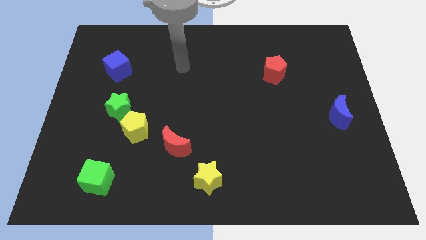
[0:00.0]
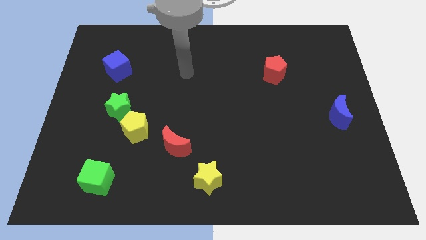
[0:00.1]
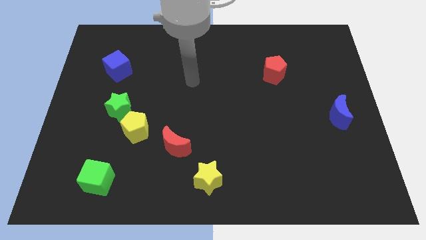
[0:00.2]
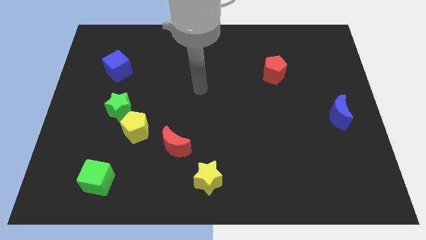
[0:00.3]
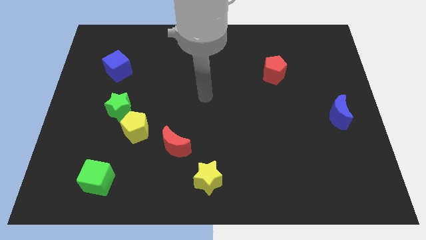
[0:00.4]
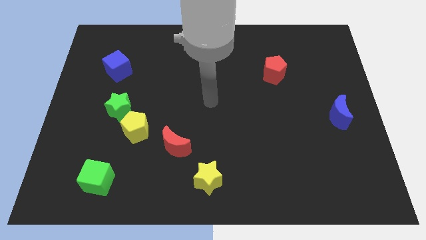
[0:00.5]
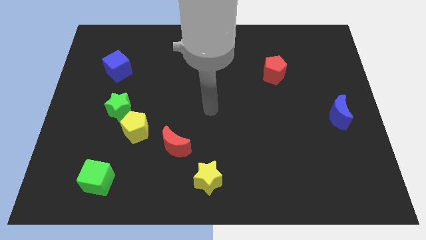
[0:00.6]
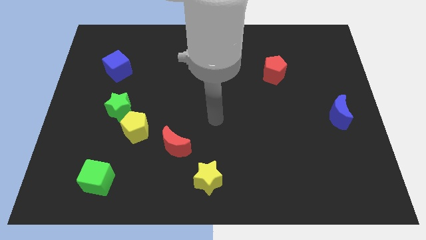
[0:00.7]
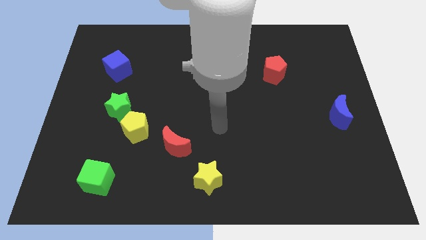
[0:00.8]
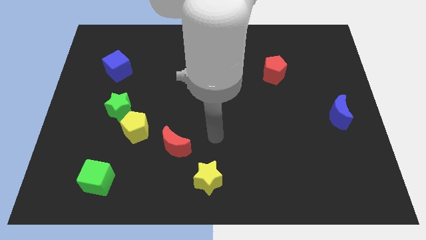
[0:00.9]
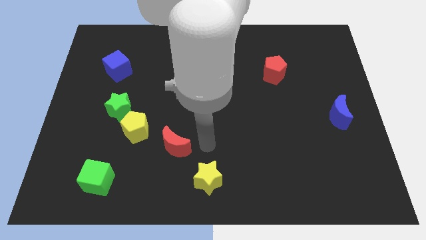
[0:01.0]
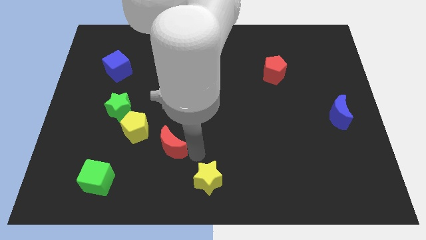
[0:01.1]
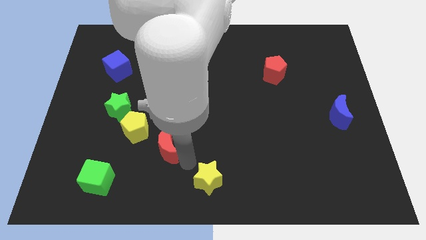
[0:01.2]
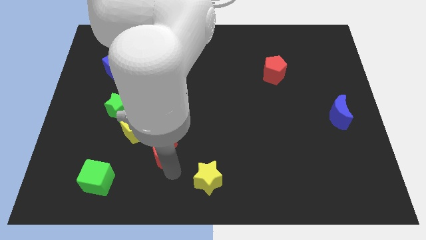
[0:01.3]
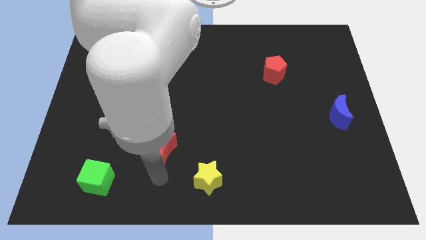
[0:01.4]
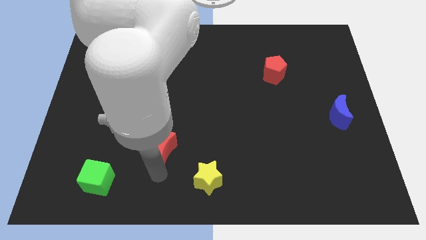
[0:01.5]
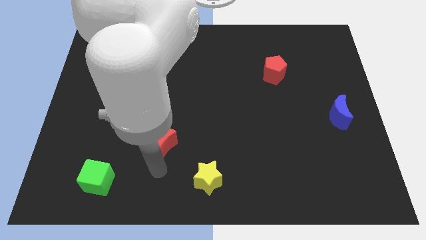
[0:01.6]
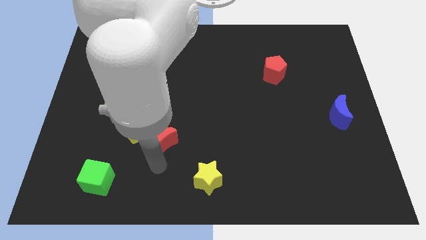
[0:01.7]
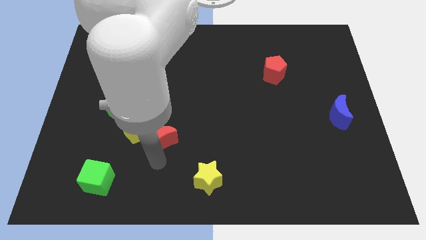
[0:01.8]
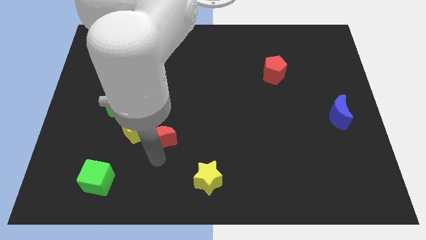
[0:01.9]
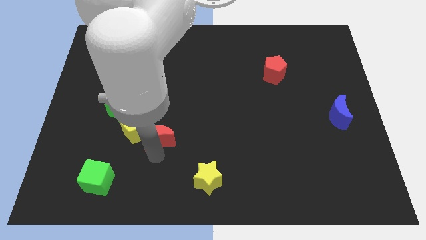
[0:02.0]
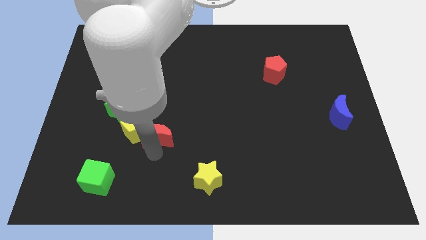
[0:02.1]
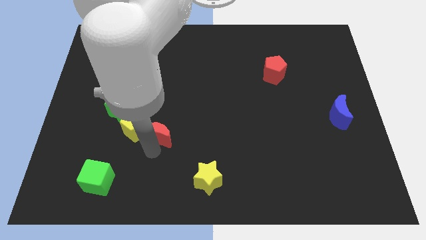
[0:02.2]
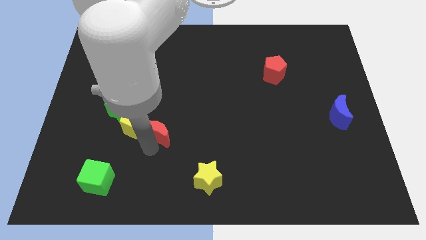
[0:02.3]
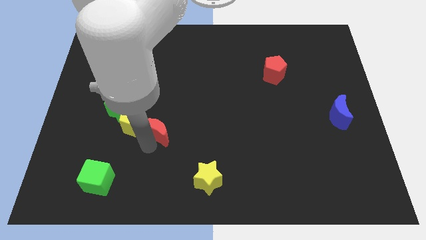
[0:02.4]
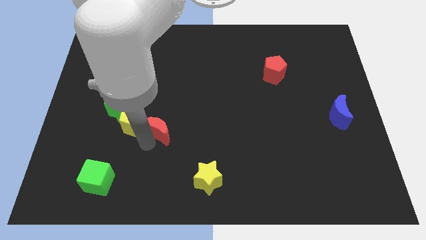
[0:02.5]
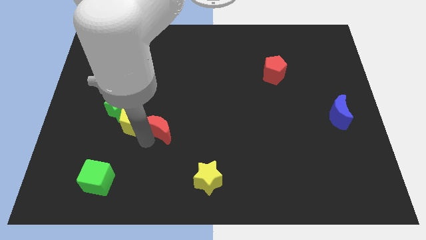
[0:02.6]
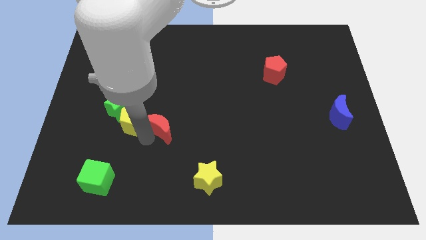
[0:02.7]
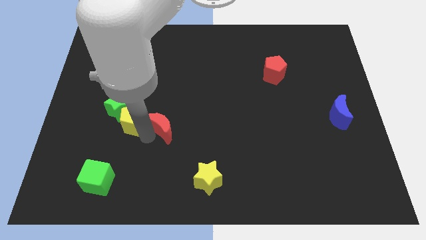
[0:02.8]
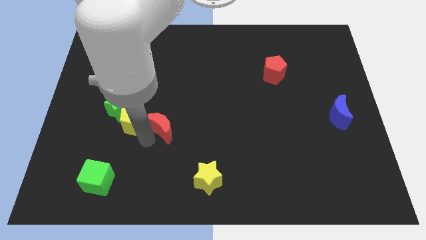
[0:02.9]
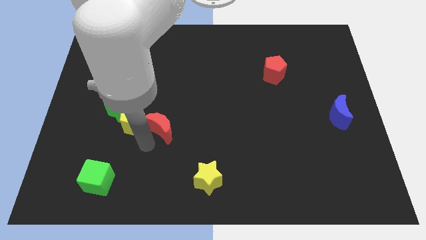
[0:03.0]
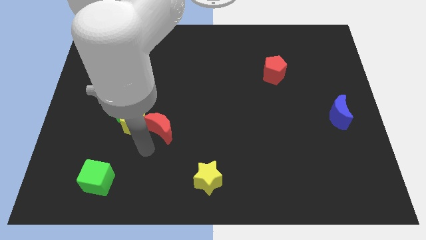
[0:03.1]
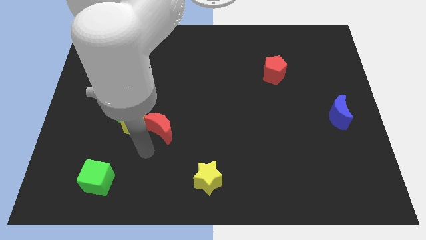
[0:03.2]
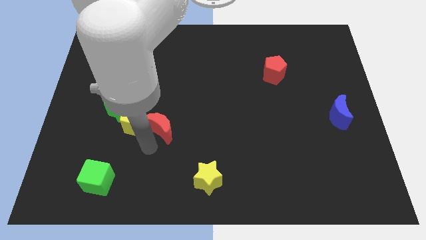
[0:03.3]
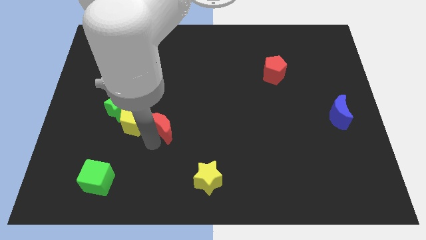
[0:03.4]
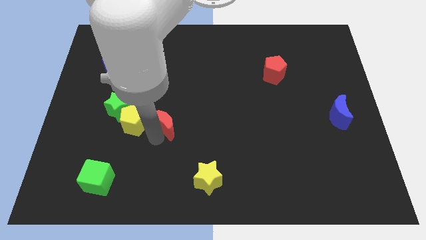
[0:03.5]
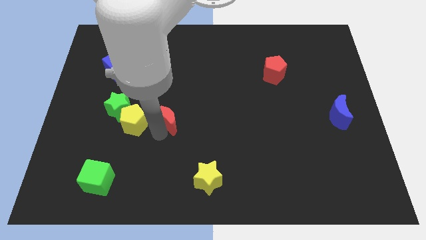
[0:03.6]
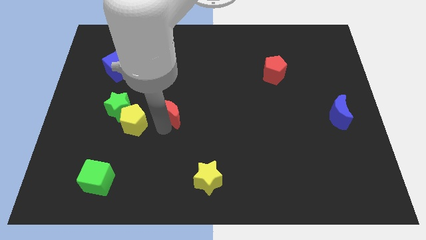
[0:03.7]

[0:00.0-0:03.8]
slightly push the red moon upwards

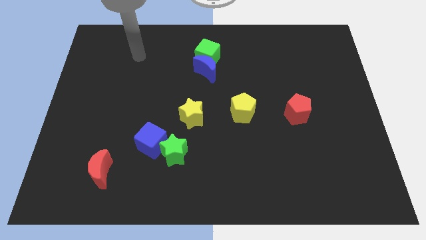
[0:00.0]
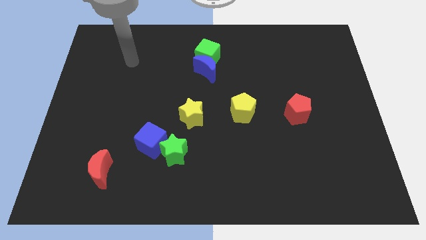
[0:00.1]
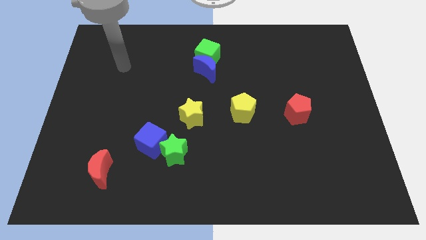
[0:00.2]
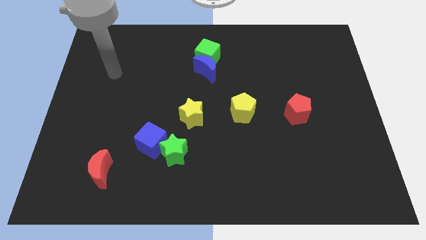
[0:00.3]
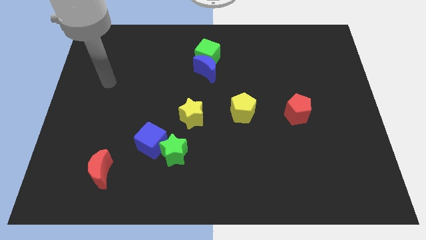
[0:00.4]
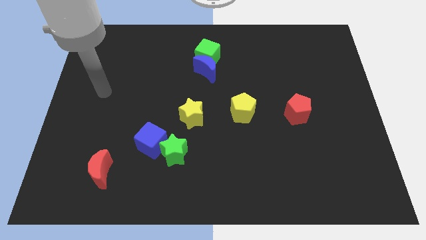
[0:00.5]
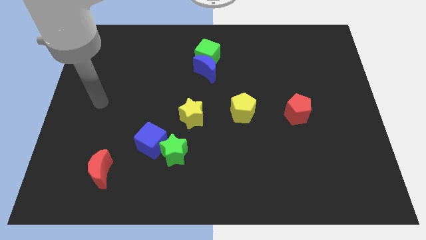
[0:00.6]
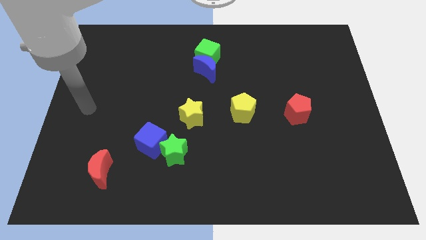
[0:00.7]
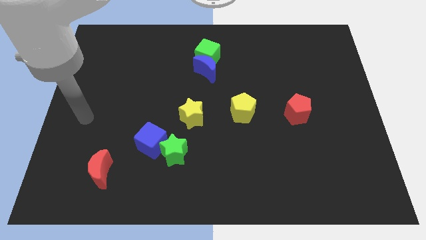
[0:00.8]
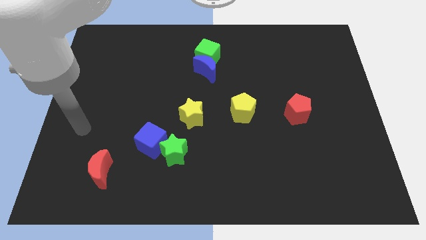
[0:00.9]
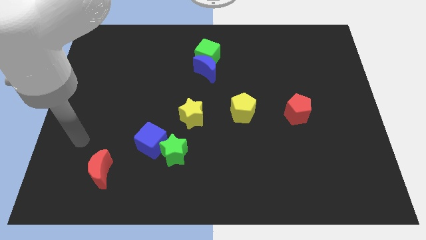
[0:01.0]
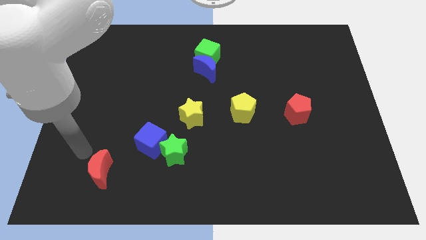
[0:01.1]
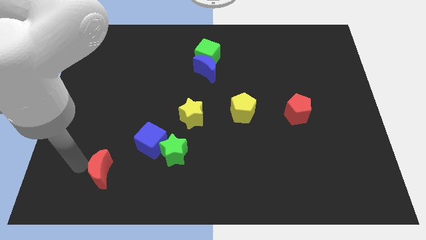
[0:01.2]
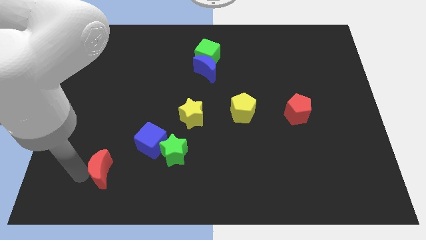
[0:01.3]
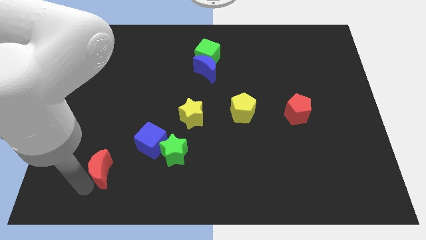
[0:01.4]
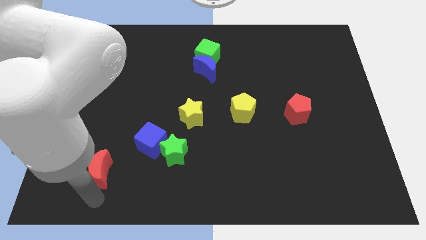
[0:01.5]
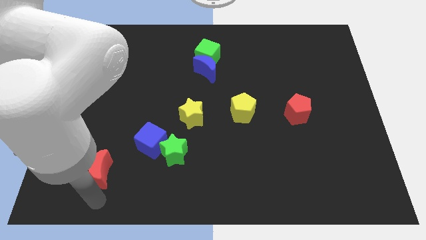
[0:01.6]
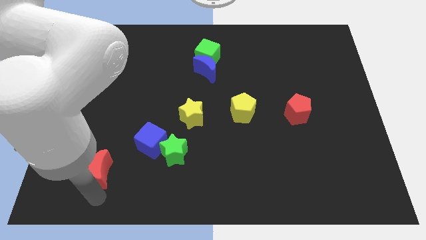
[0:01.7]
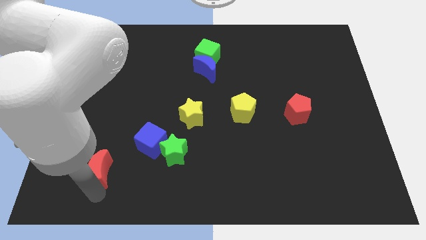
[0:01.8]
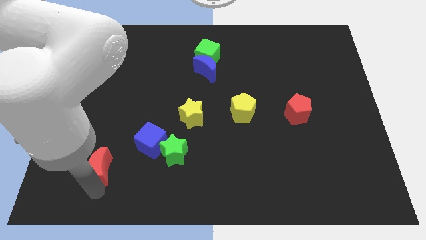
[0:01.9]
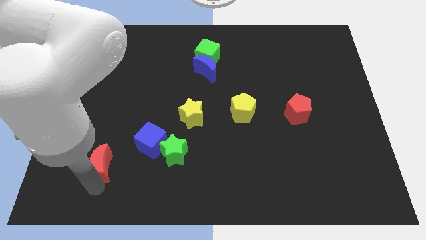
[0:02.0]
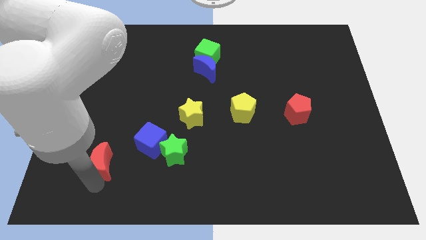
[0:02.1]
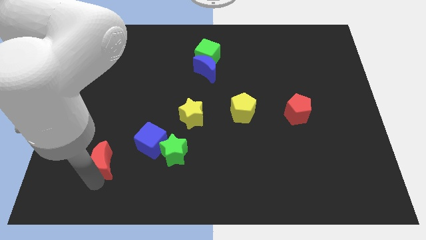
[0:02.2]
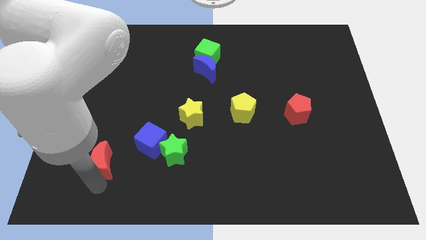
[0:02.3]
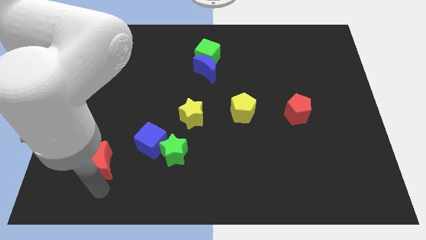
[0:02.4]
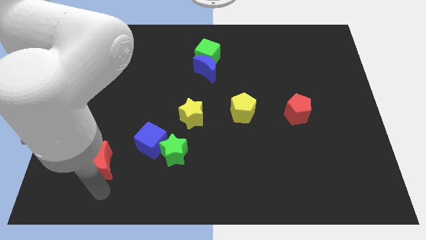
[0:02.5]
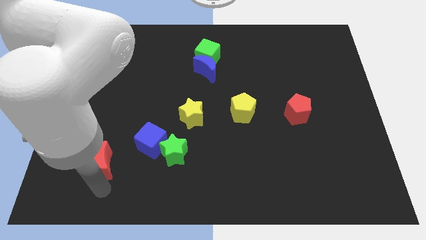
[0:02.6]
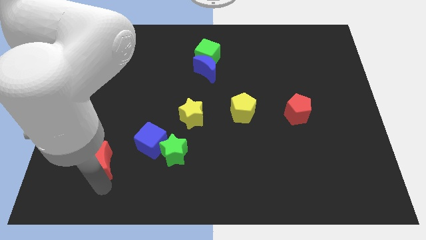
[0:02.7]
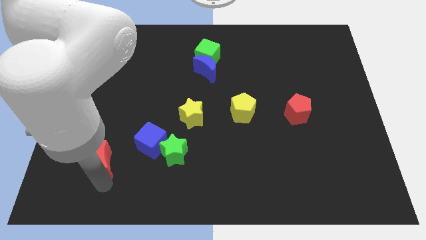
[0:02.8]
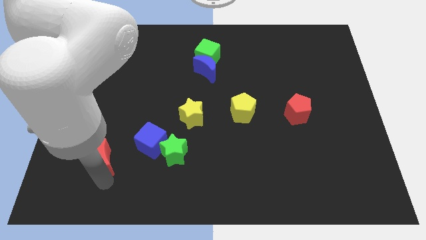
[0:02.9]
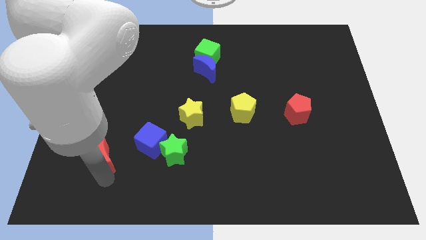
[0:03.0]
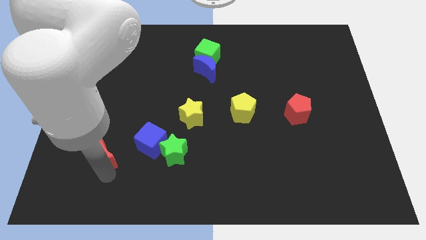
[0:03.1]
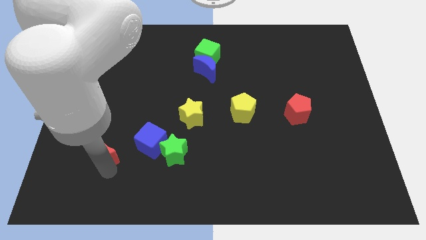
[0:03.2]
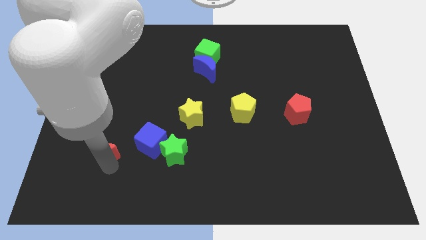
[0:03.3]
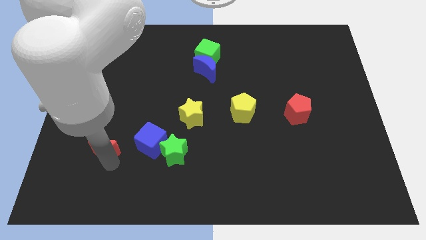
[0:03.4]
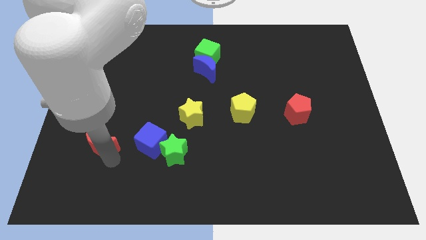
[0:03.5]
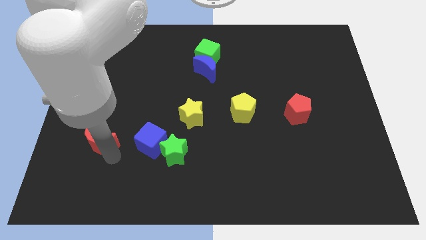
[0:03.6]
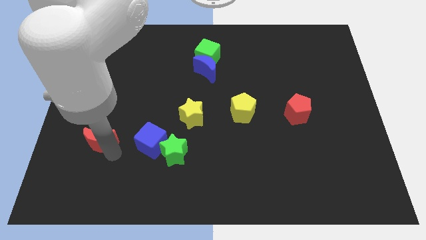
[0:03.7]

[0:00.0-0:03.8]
slightly move the red moon up
